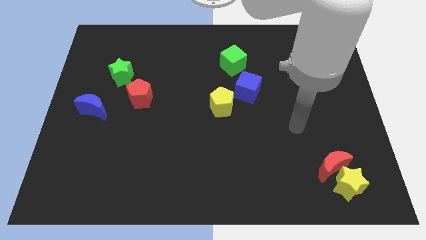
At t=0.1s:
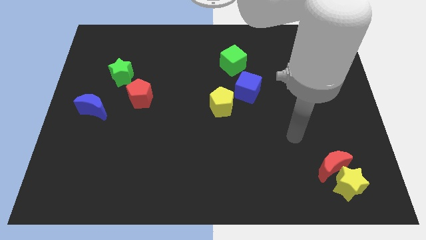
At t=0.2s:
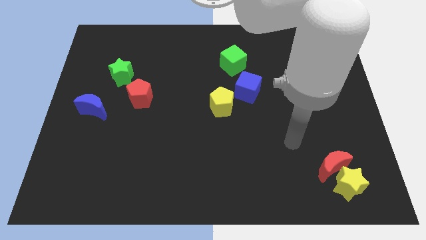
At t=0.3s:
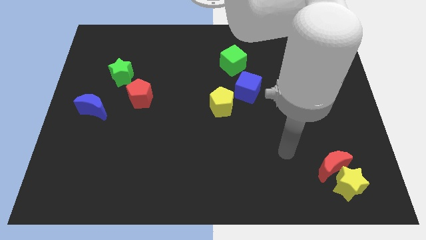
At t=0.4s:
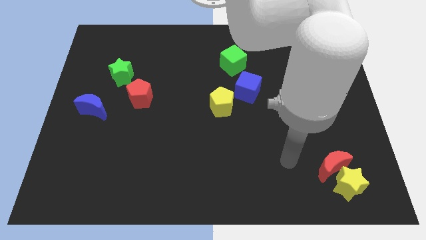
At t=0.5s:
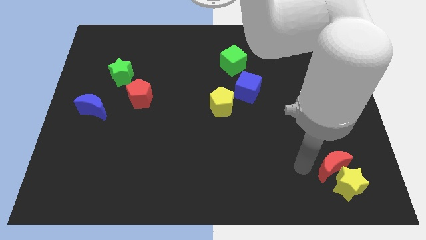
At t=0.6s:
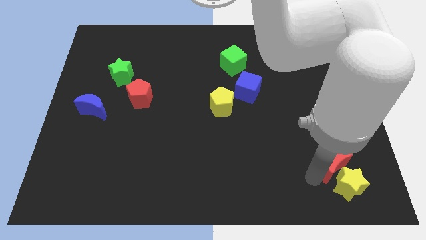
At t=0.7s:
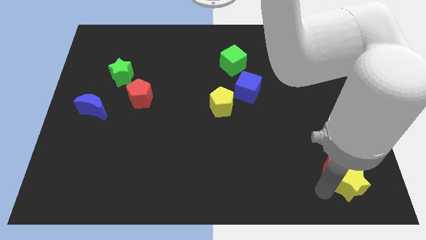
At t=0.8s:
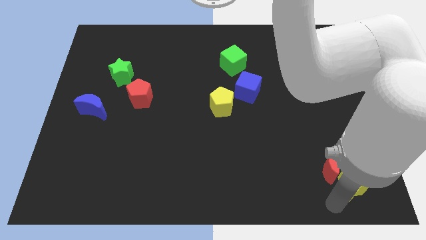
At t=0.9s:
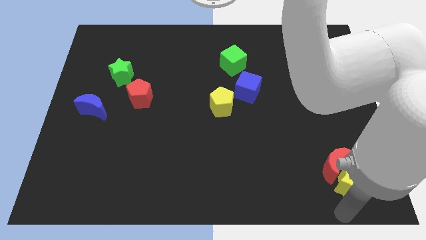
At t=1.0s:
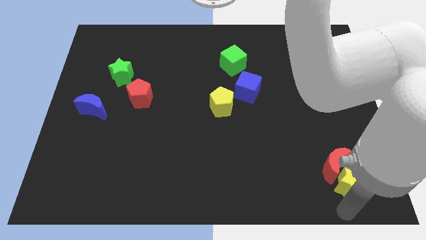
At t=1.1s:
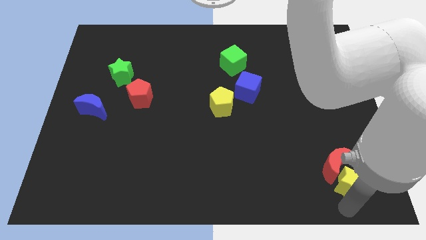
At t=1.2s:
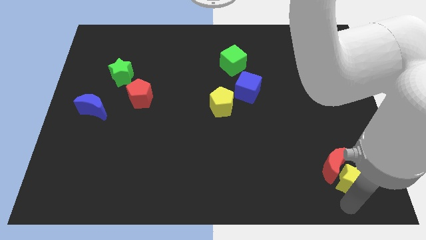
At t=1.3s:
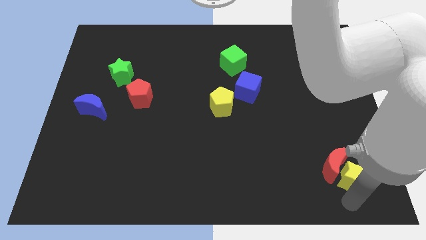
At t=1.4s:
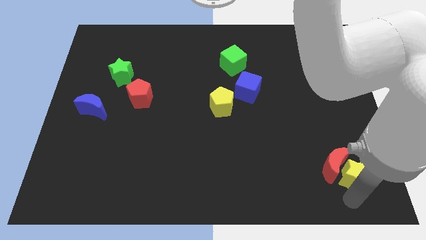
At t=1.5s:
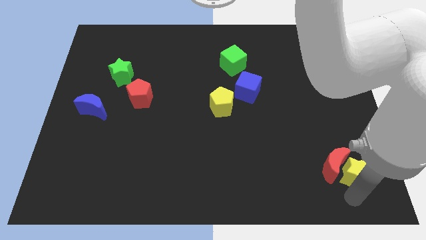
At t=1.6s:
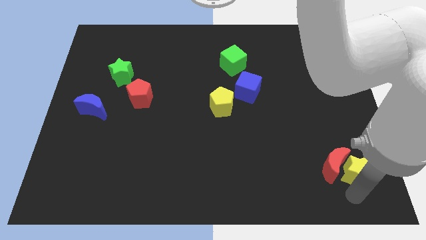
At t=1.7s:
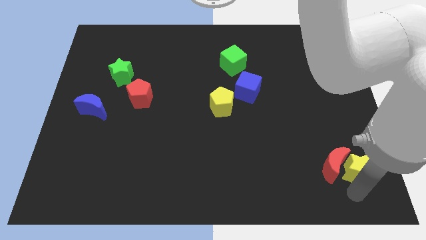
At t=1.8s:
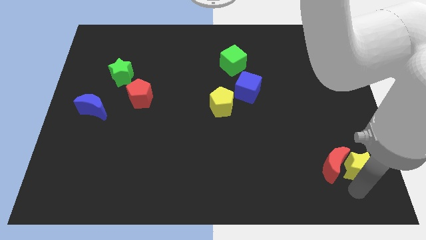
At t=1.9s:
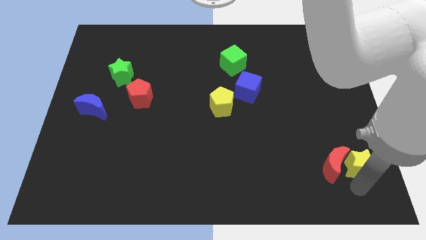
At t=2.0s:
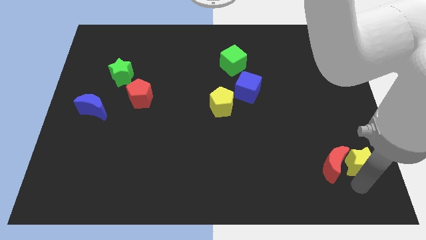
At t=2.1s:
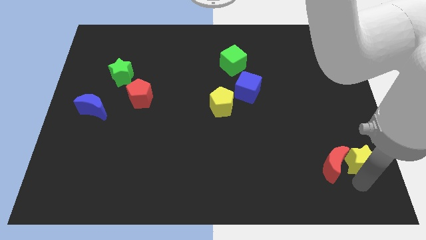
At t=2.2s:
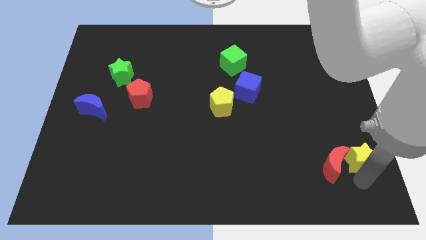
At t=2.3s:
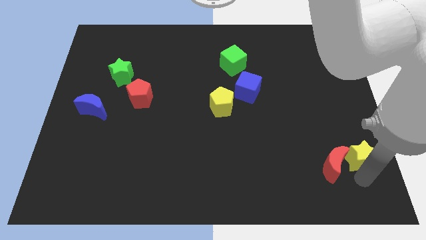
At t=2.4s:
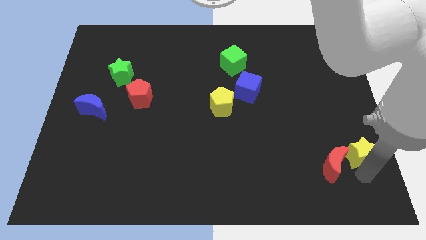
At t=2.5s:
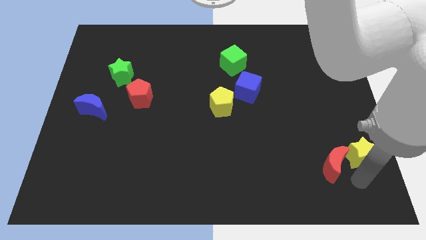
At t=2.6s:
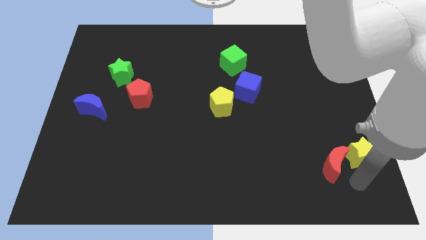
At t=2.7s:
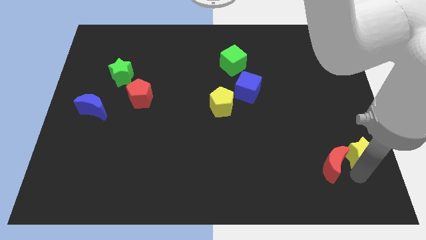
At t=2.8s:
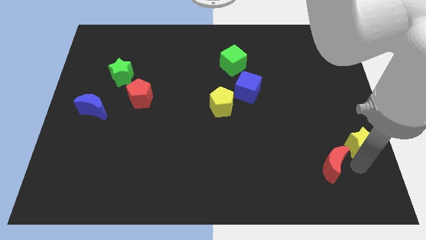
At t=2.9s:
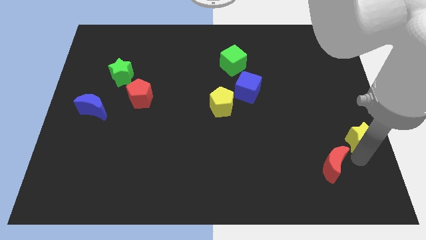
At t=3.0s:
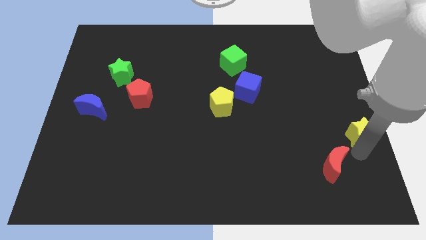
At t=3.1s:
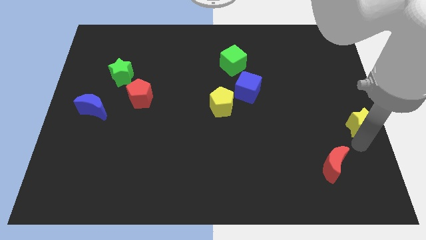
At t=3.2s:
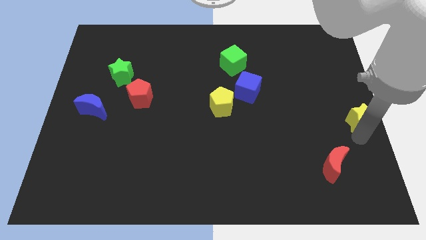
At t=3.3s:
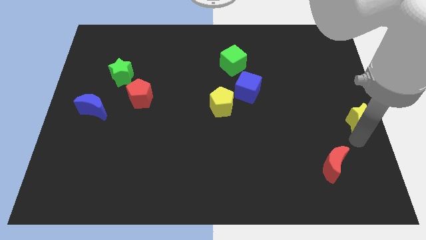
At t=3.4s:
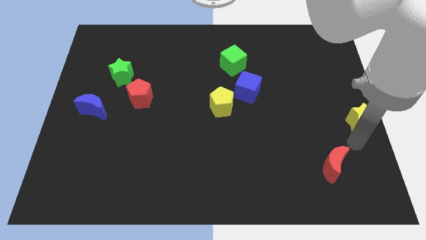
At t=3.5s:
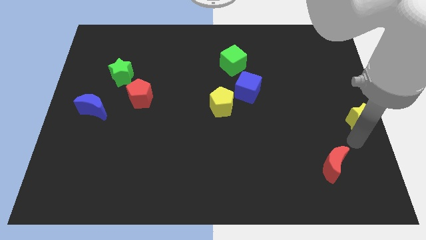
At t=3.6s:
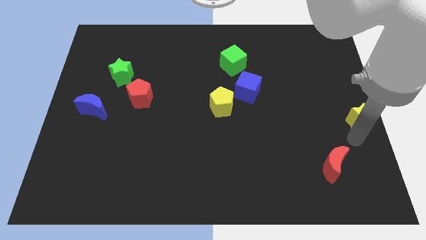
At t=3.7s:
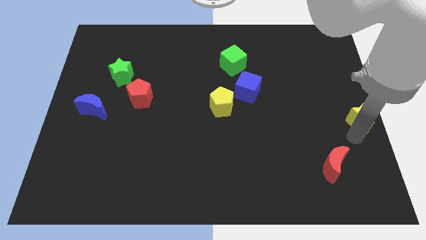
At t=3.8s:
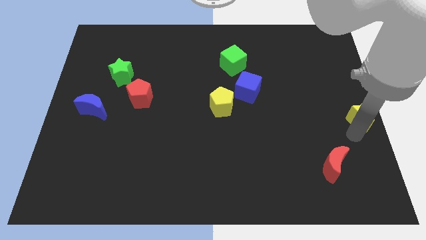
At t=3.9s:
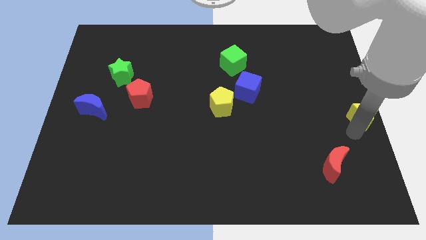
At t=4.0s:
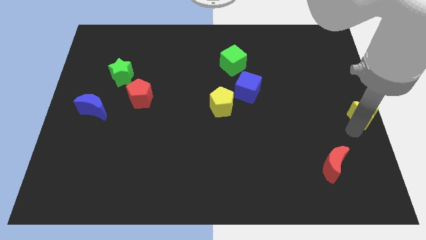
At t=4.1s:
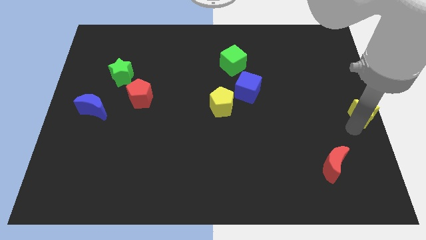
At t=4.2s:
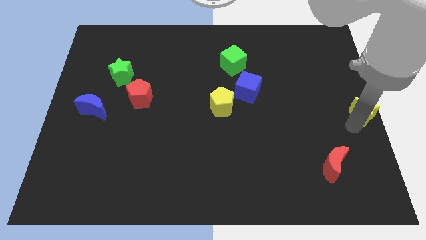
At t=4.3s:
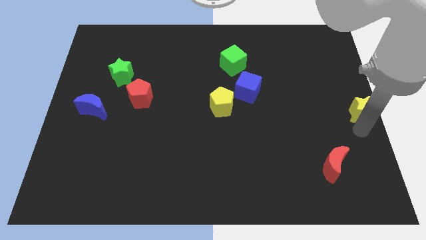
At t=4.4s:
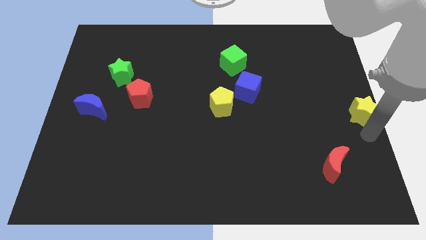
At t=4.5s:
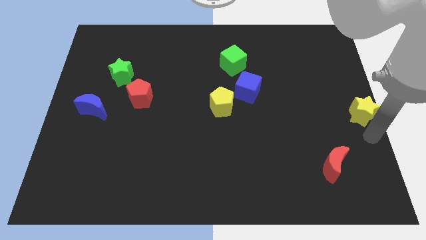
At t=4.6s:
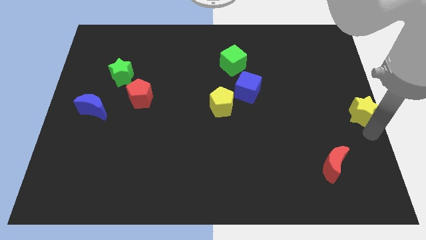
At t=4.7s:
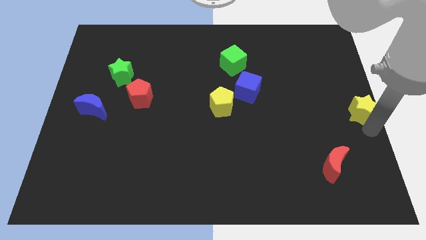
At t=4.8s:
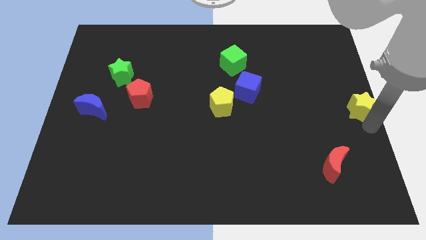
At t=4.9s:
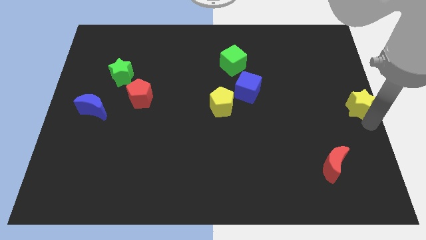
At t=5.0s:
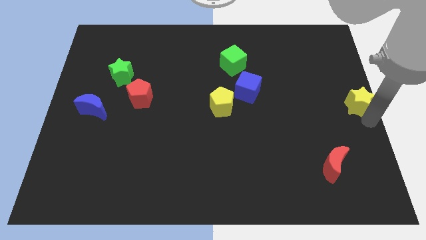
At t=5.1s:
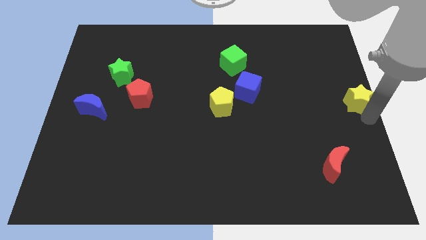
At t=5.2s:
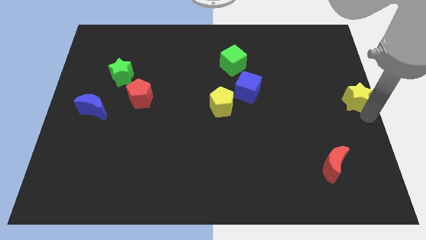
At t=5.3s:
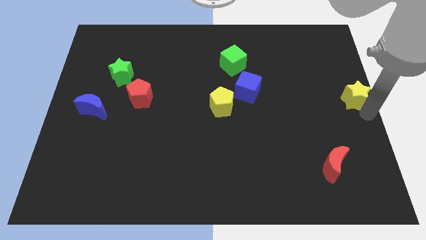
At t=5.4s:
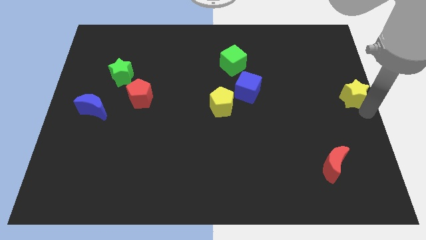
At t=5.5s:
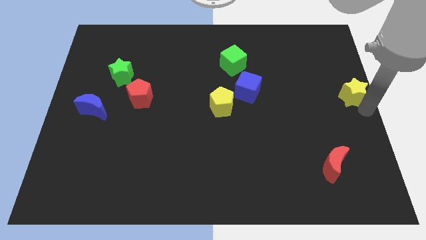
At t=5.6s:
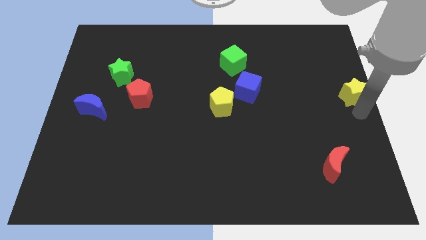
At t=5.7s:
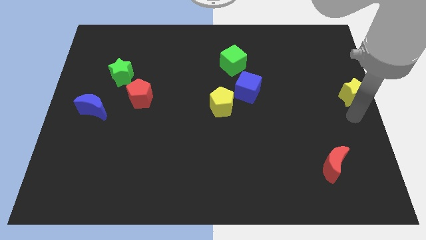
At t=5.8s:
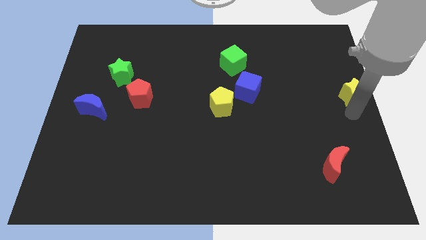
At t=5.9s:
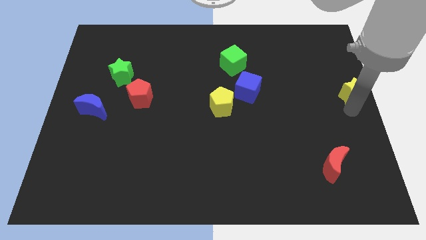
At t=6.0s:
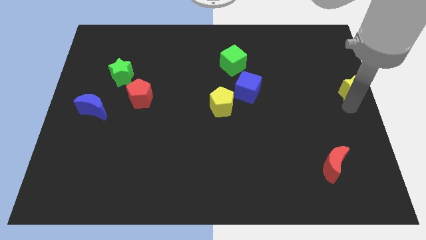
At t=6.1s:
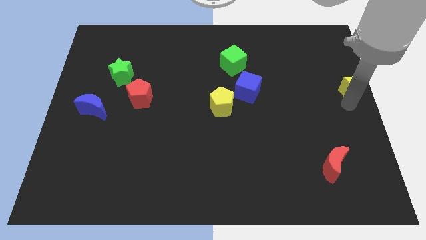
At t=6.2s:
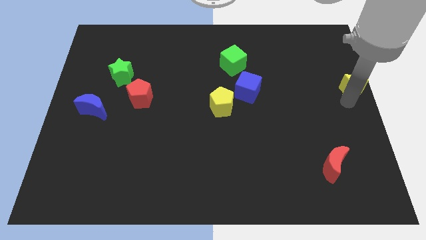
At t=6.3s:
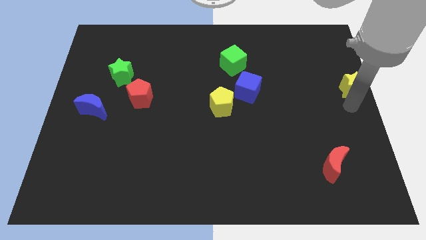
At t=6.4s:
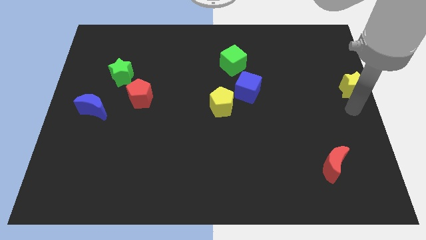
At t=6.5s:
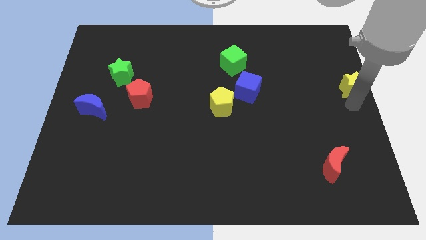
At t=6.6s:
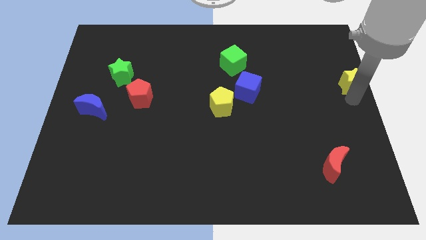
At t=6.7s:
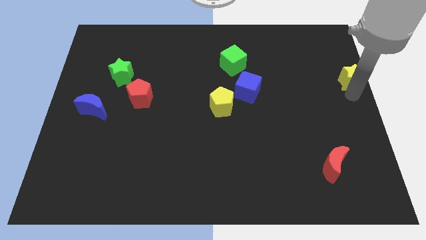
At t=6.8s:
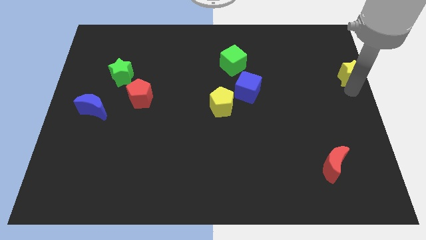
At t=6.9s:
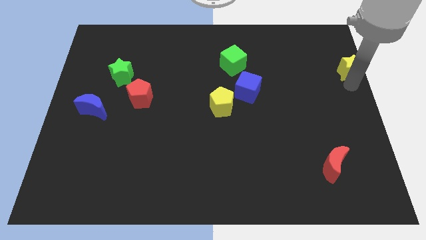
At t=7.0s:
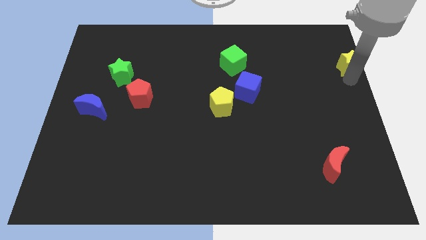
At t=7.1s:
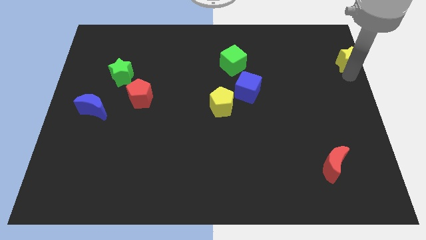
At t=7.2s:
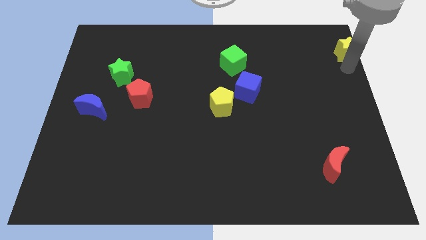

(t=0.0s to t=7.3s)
push the yellow star to the top right of the board
